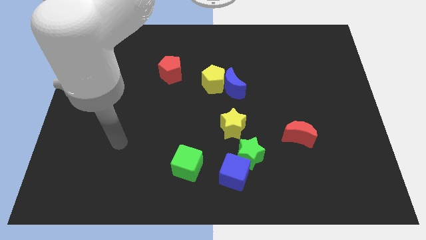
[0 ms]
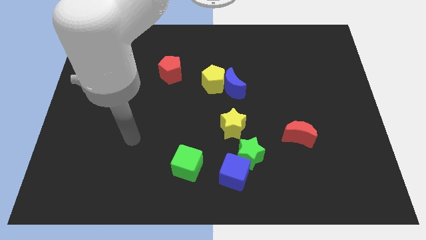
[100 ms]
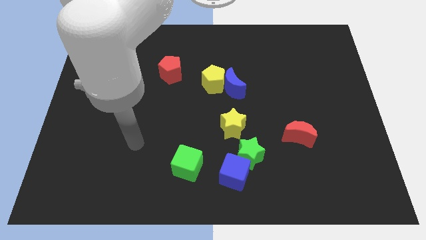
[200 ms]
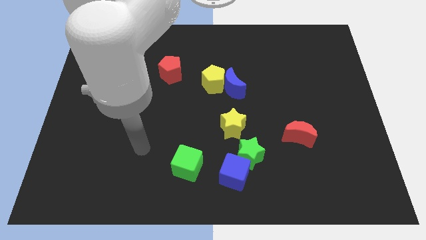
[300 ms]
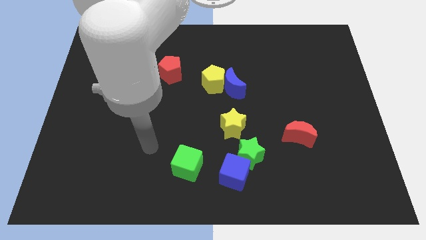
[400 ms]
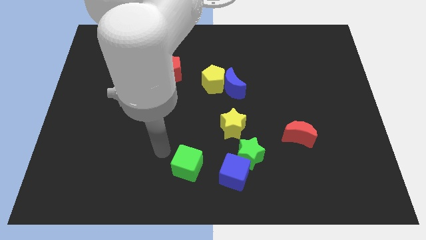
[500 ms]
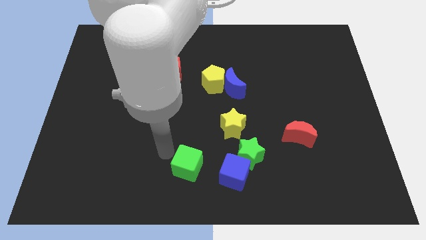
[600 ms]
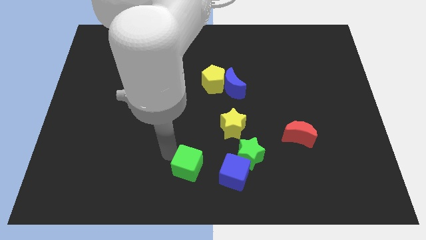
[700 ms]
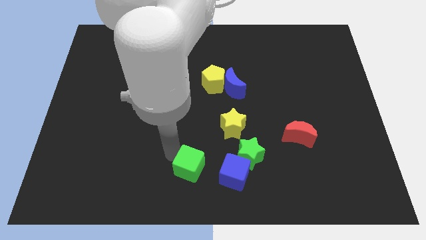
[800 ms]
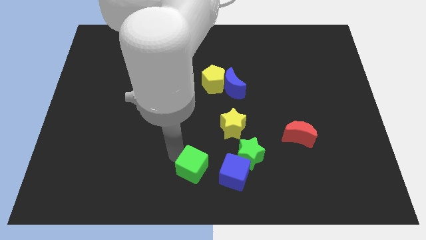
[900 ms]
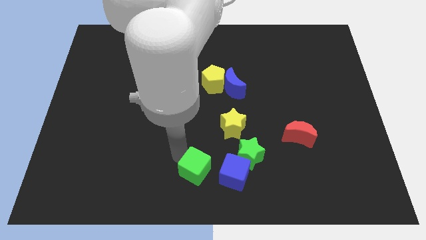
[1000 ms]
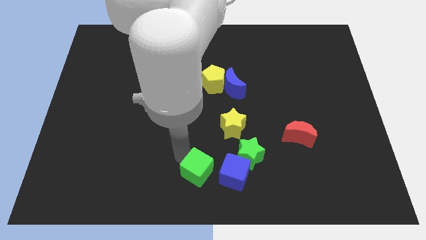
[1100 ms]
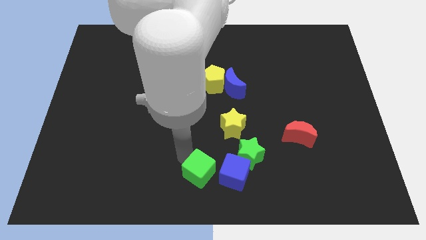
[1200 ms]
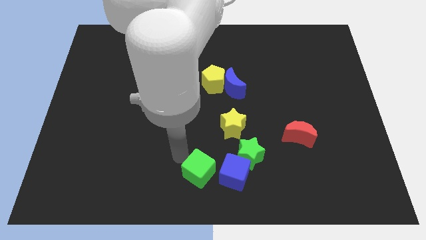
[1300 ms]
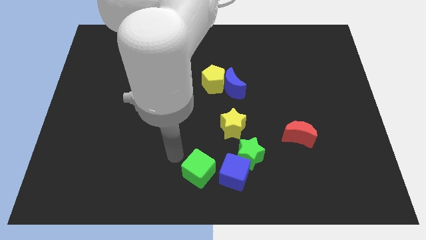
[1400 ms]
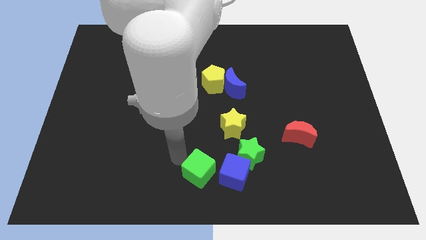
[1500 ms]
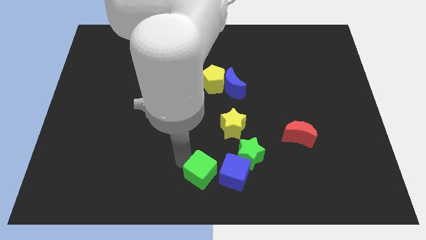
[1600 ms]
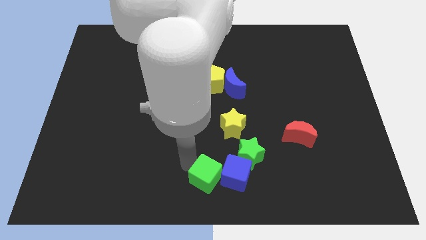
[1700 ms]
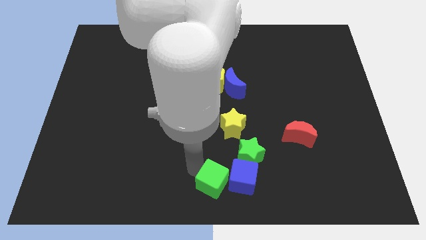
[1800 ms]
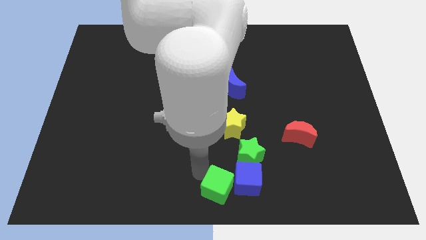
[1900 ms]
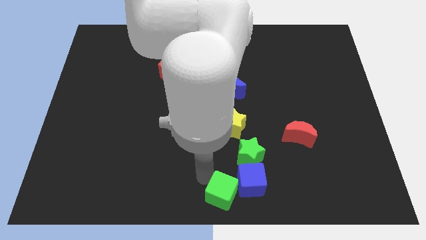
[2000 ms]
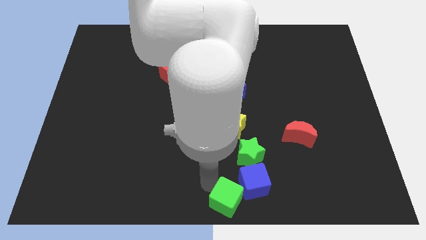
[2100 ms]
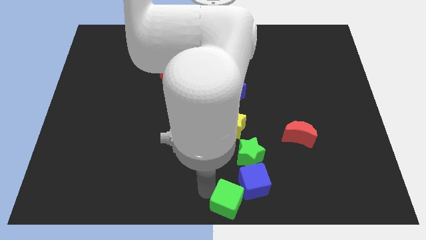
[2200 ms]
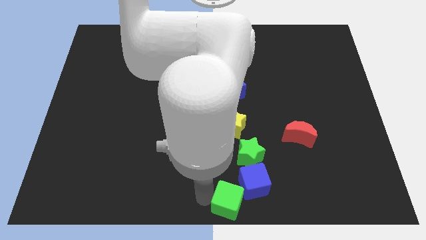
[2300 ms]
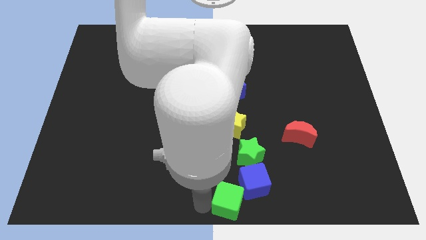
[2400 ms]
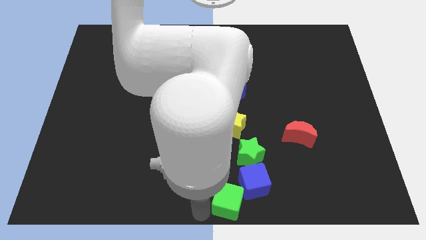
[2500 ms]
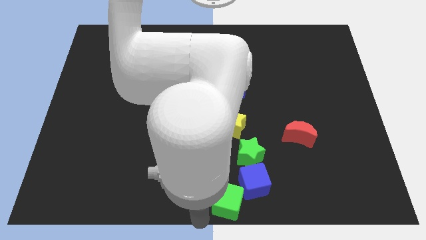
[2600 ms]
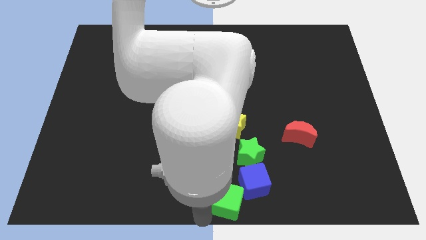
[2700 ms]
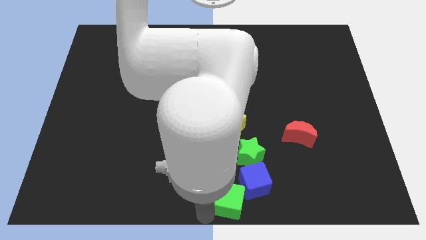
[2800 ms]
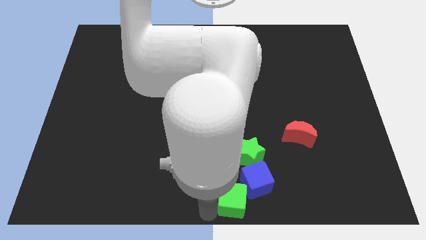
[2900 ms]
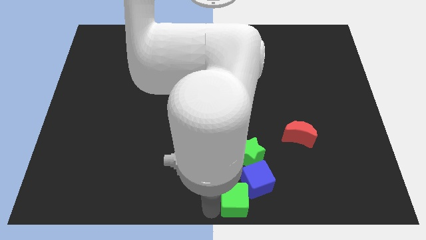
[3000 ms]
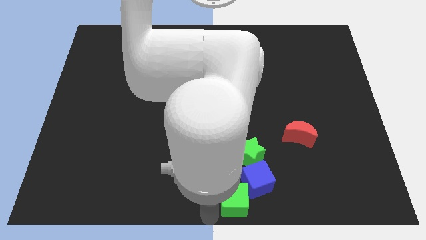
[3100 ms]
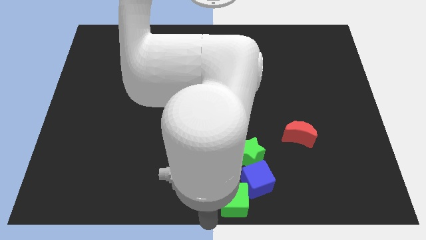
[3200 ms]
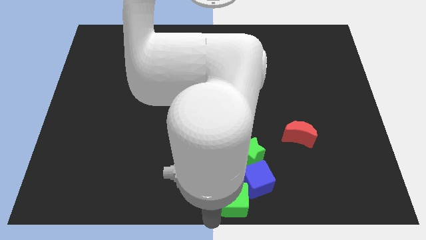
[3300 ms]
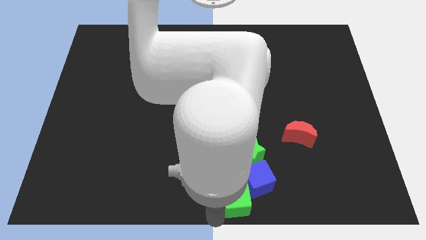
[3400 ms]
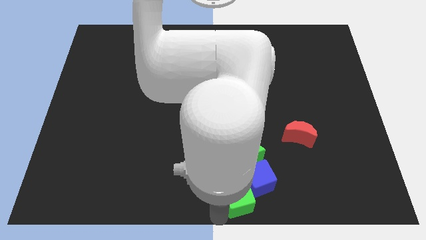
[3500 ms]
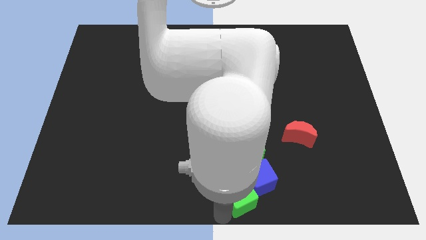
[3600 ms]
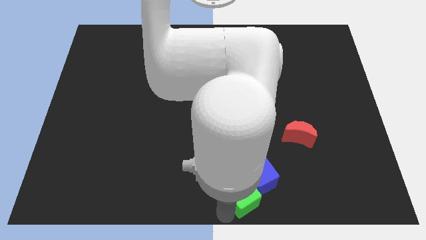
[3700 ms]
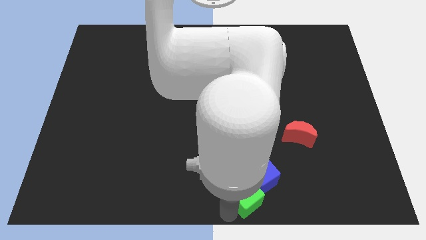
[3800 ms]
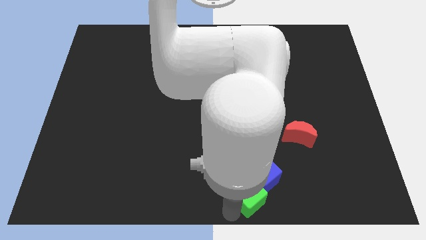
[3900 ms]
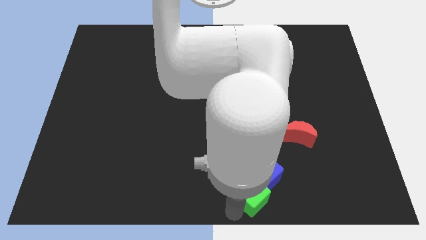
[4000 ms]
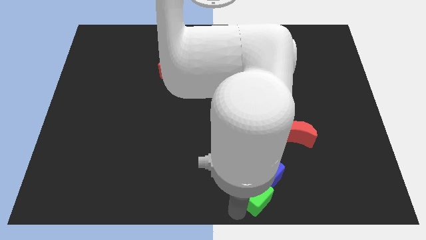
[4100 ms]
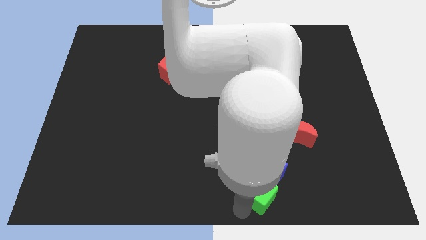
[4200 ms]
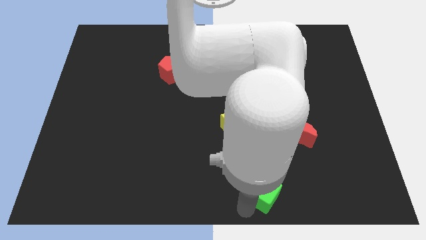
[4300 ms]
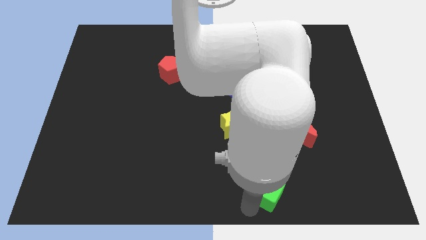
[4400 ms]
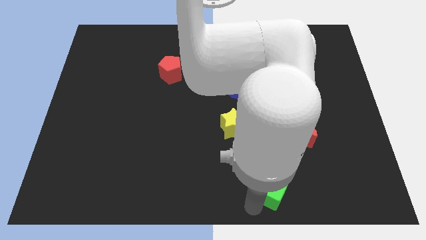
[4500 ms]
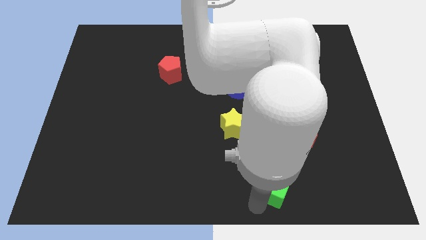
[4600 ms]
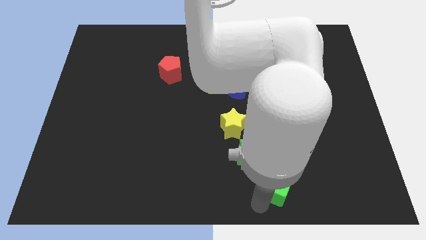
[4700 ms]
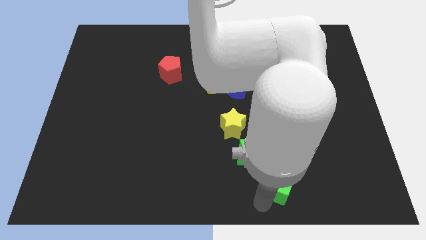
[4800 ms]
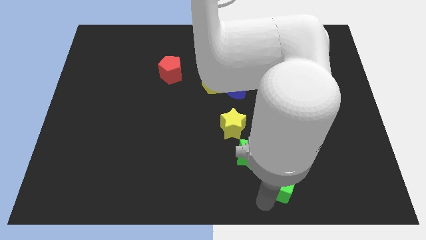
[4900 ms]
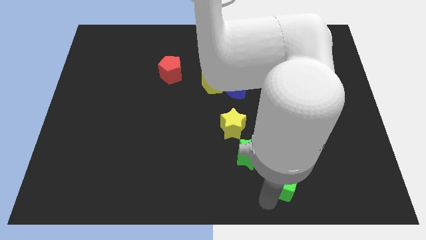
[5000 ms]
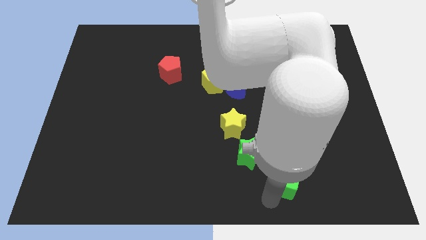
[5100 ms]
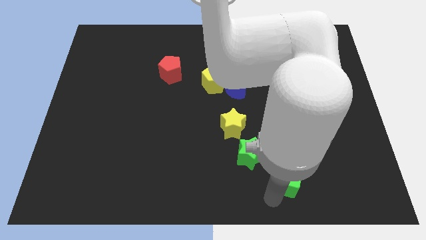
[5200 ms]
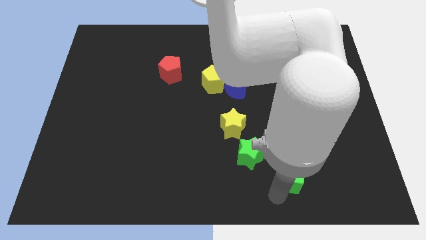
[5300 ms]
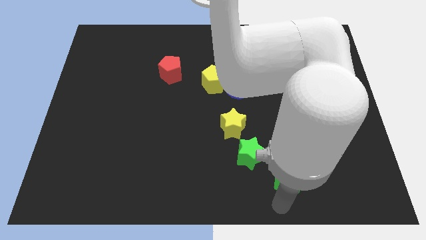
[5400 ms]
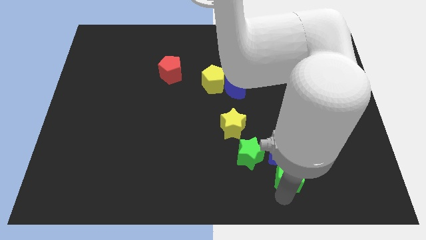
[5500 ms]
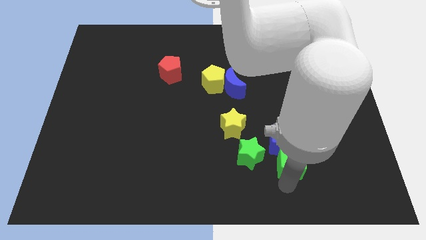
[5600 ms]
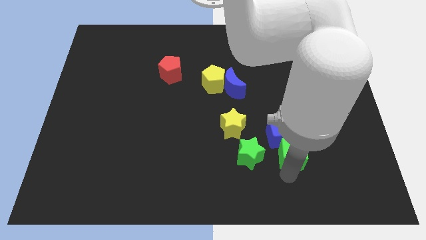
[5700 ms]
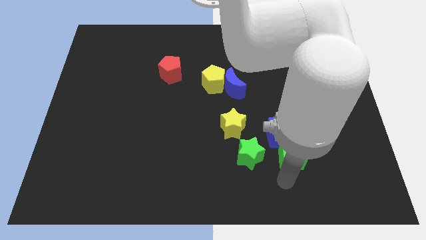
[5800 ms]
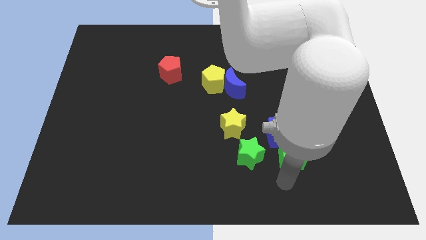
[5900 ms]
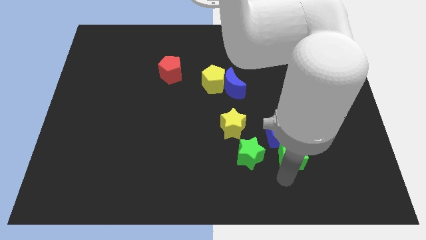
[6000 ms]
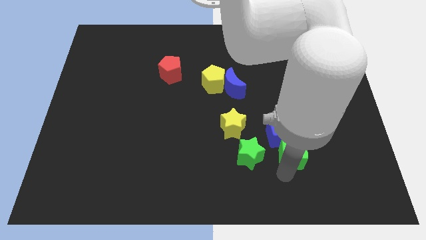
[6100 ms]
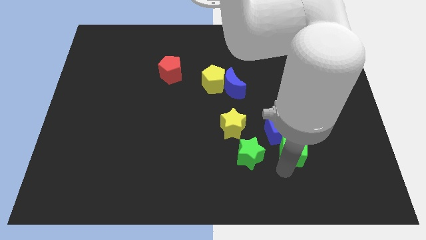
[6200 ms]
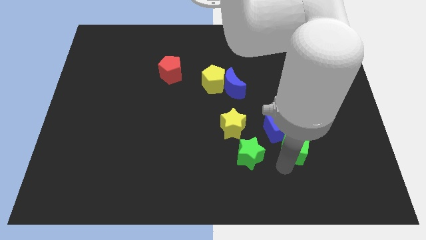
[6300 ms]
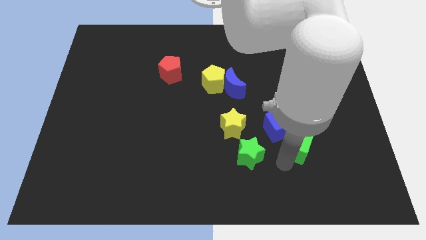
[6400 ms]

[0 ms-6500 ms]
move the green cube towards the red moon
